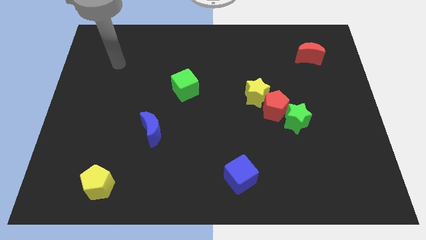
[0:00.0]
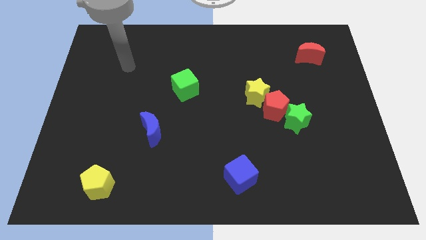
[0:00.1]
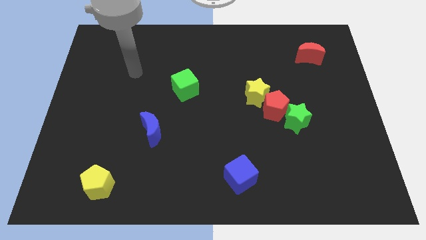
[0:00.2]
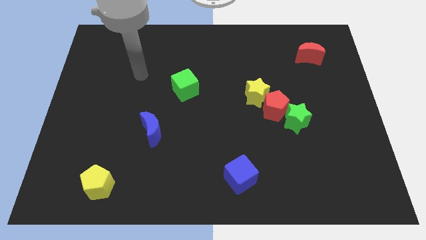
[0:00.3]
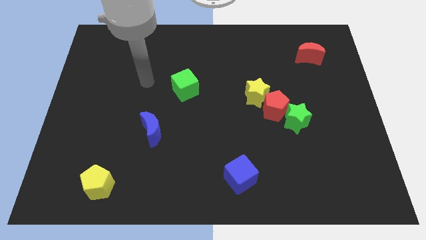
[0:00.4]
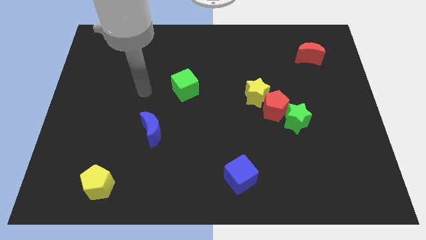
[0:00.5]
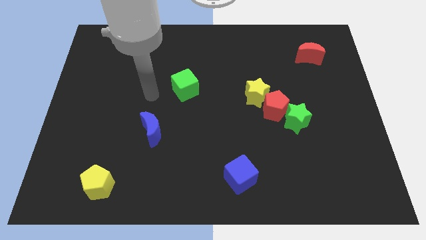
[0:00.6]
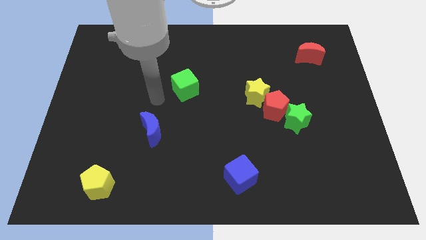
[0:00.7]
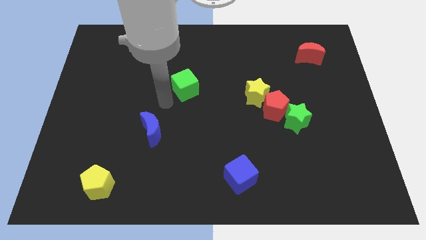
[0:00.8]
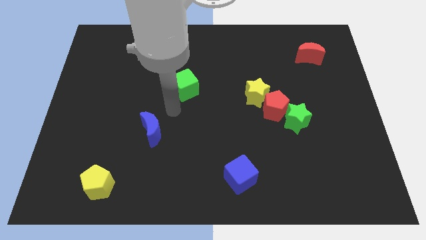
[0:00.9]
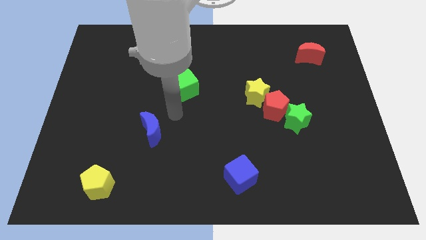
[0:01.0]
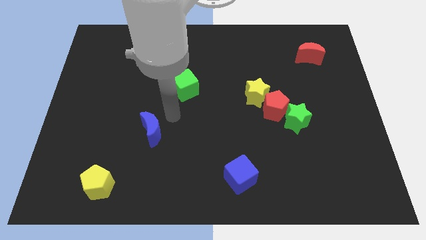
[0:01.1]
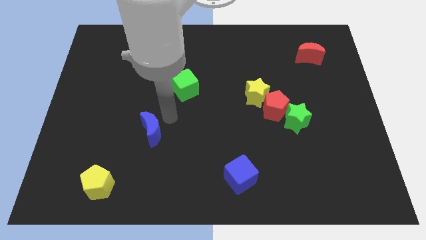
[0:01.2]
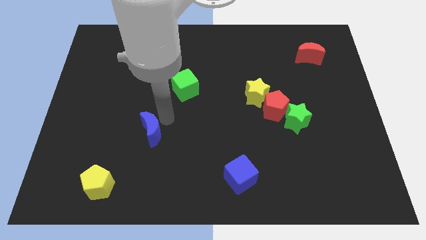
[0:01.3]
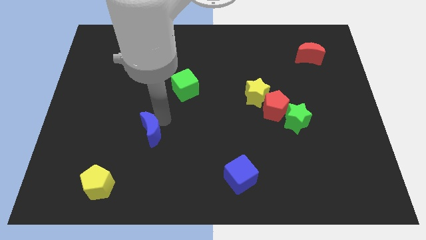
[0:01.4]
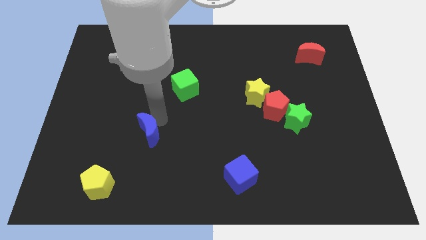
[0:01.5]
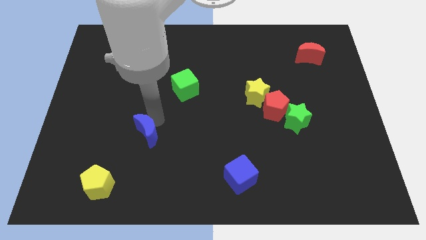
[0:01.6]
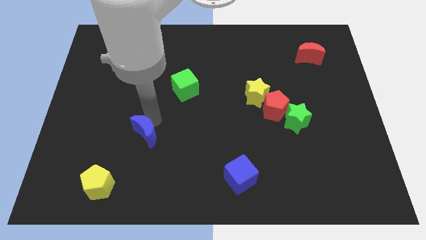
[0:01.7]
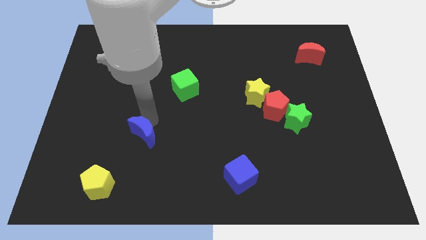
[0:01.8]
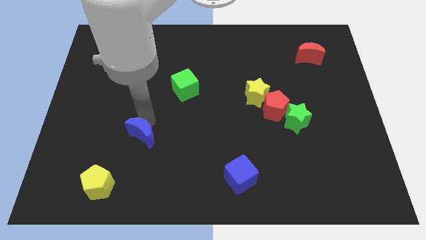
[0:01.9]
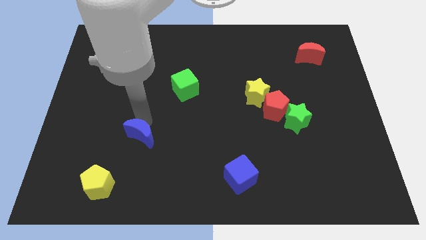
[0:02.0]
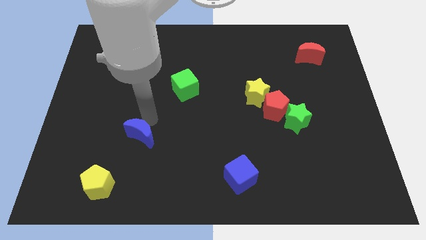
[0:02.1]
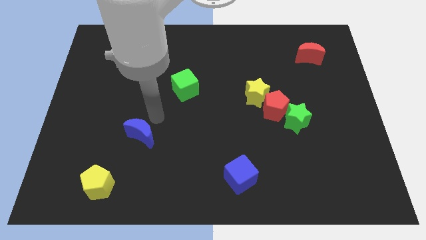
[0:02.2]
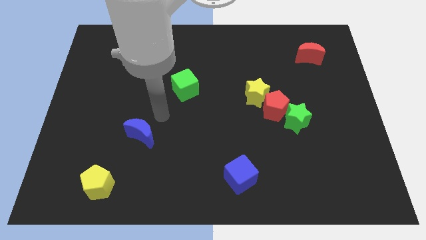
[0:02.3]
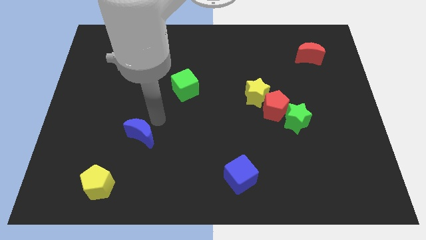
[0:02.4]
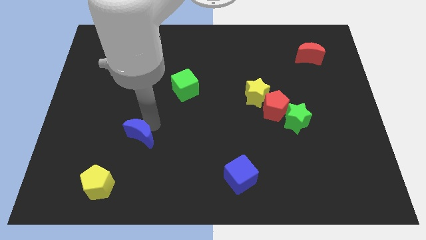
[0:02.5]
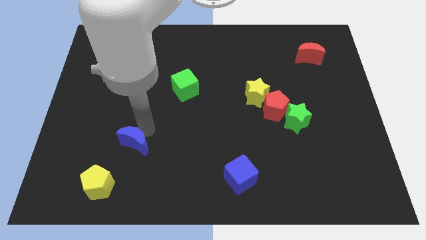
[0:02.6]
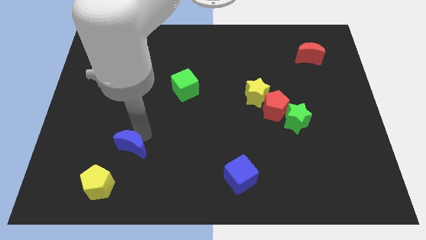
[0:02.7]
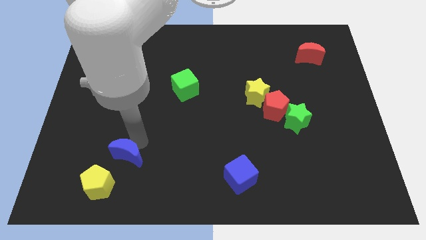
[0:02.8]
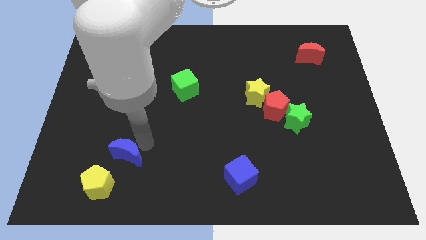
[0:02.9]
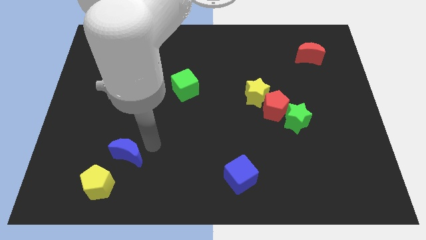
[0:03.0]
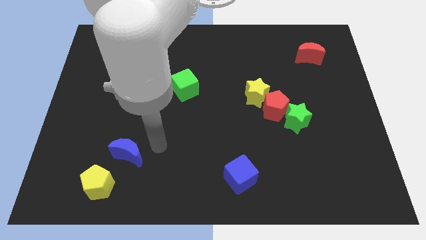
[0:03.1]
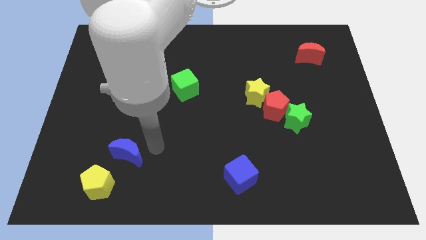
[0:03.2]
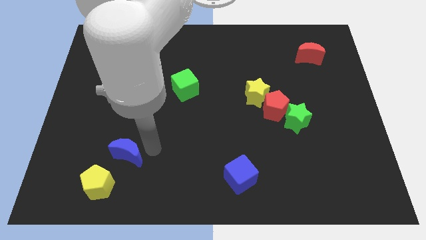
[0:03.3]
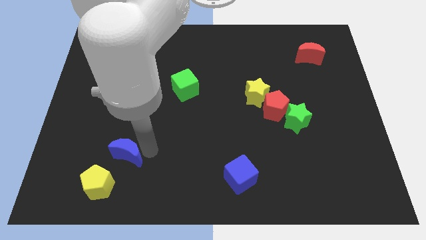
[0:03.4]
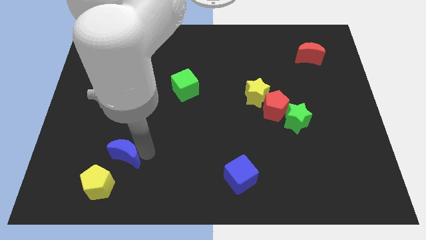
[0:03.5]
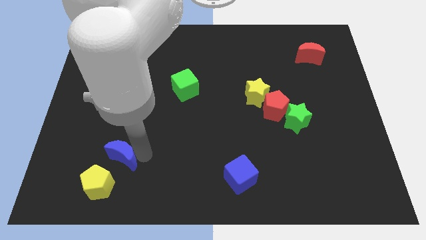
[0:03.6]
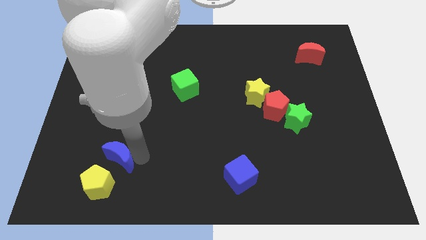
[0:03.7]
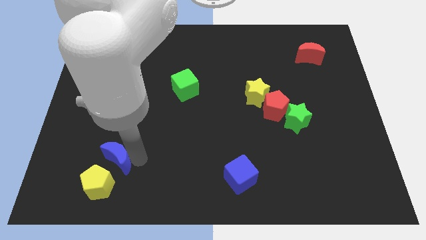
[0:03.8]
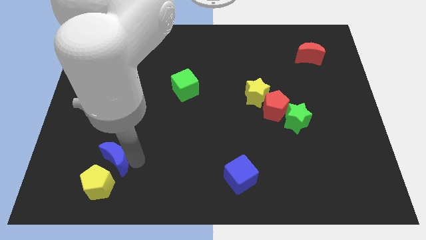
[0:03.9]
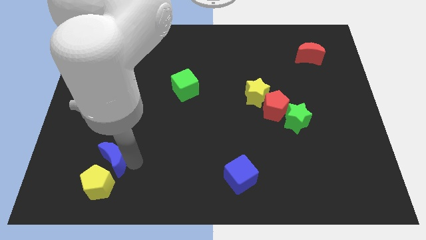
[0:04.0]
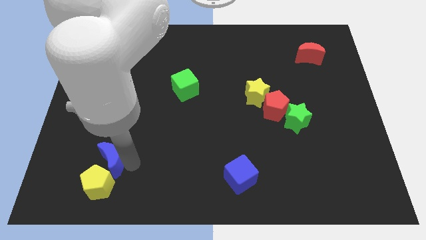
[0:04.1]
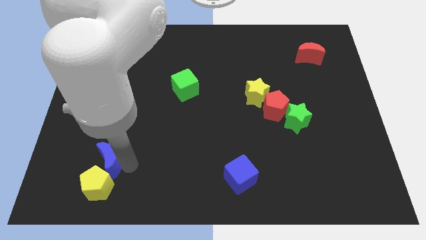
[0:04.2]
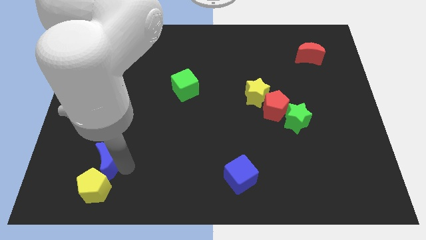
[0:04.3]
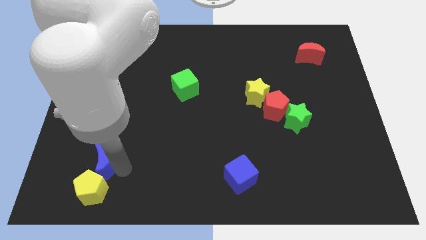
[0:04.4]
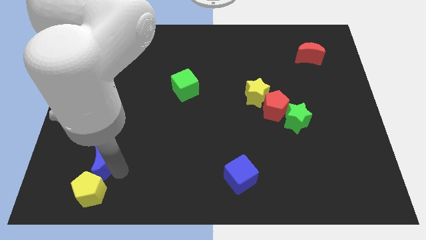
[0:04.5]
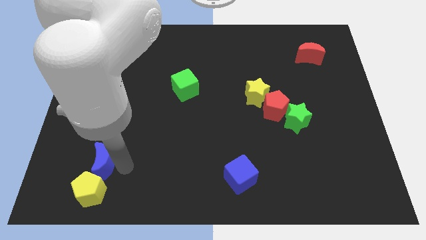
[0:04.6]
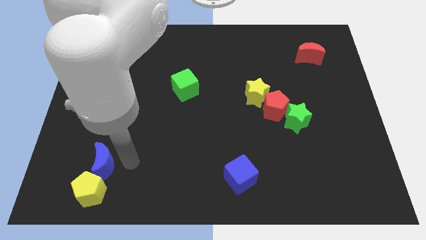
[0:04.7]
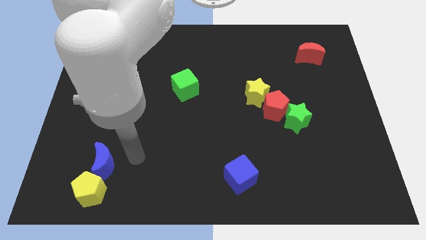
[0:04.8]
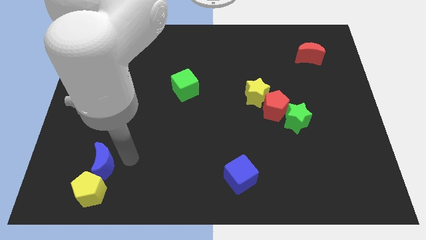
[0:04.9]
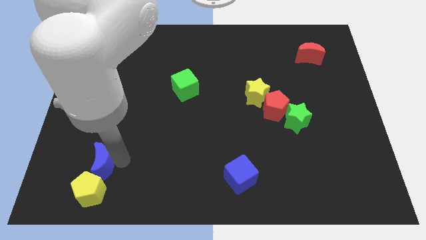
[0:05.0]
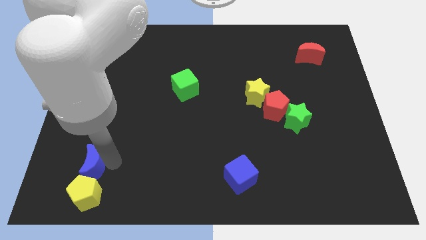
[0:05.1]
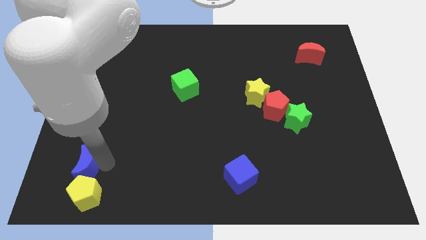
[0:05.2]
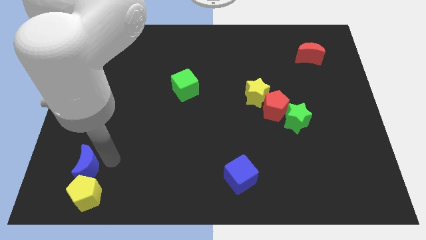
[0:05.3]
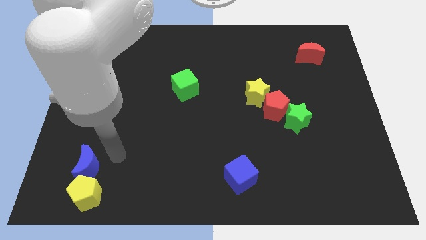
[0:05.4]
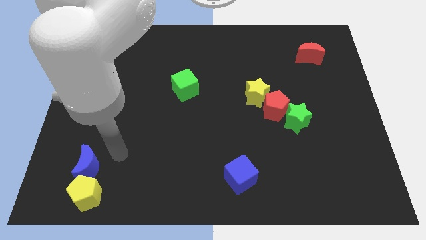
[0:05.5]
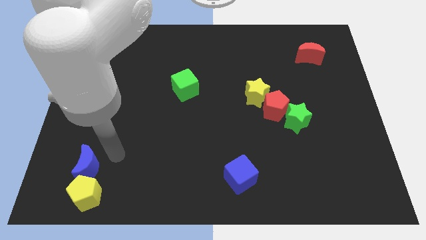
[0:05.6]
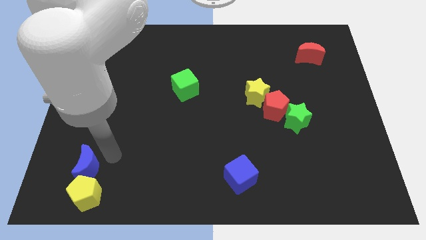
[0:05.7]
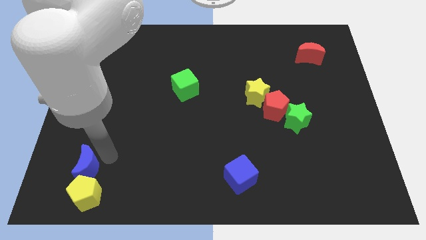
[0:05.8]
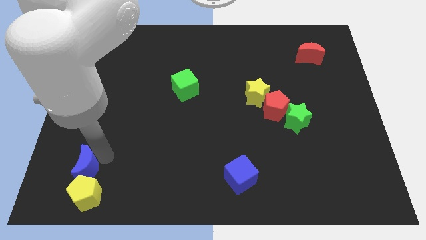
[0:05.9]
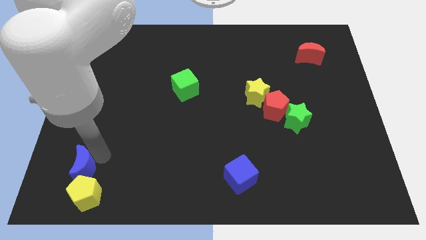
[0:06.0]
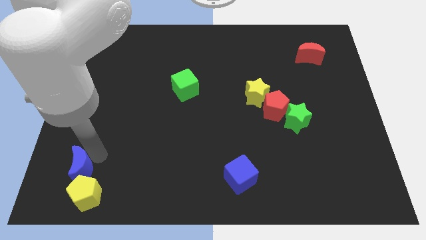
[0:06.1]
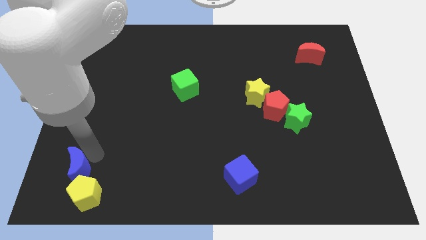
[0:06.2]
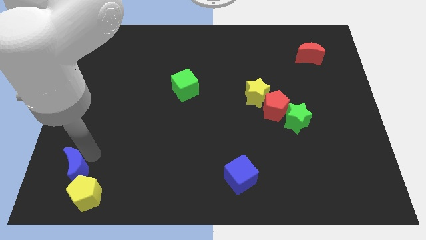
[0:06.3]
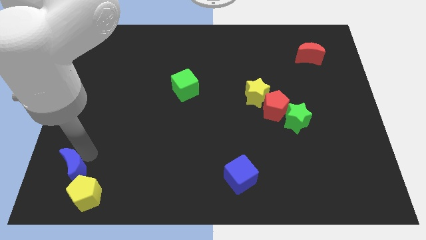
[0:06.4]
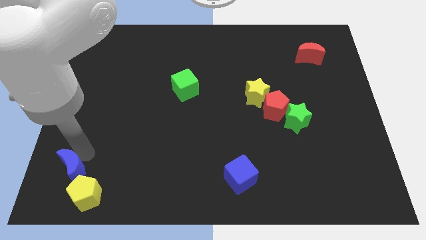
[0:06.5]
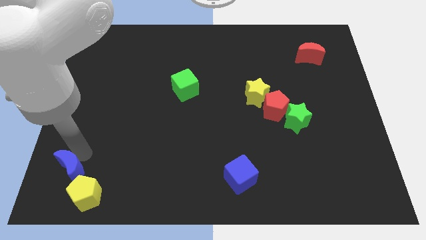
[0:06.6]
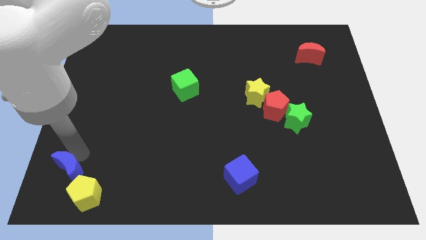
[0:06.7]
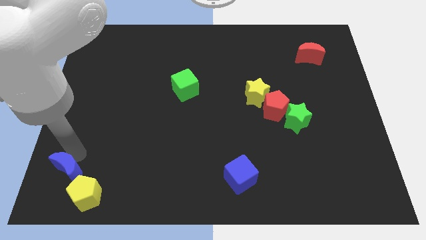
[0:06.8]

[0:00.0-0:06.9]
push the blue moon to the bottom left corner

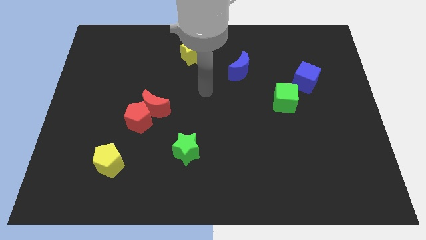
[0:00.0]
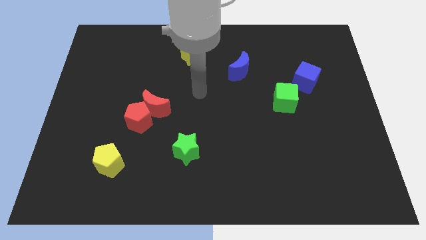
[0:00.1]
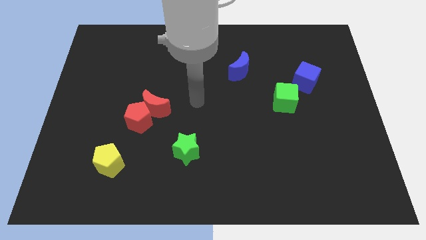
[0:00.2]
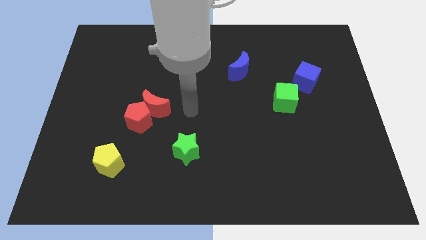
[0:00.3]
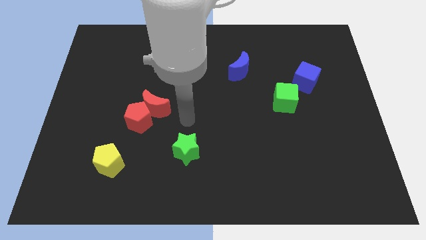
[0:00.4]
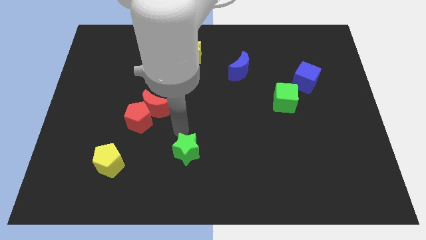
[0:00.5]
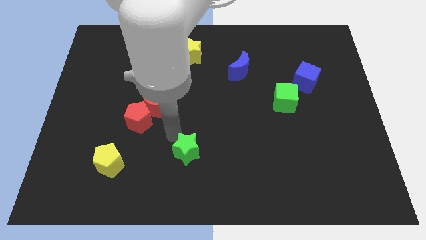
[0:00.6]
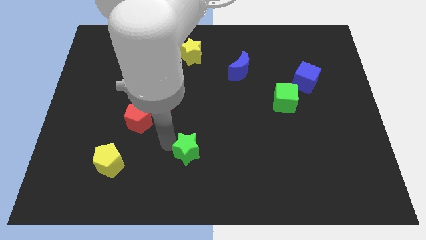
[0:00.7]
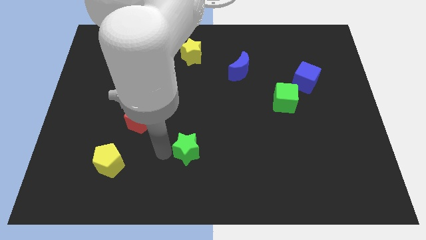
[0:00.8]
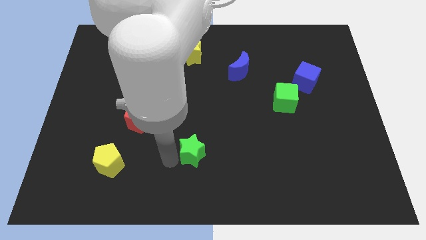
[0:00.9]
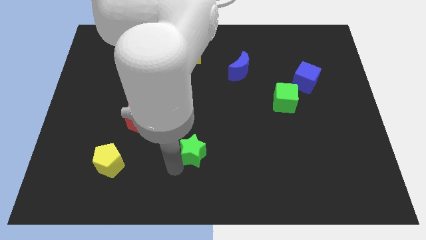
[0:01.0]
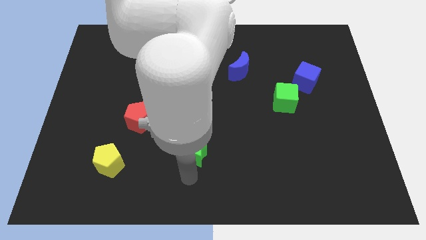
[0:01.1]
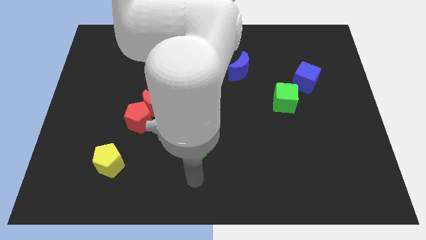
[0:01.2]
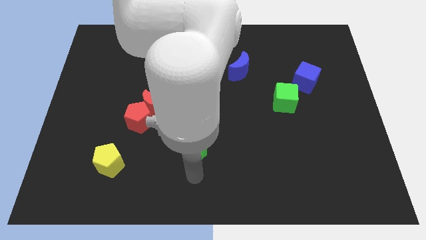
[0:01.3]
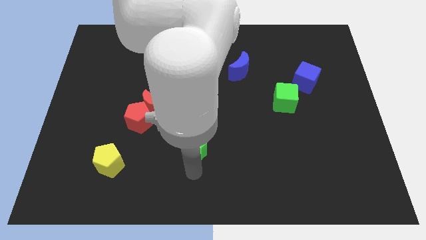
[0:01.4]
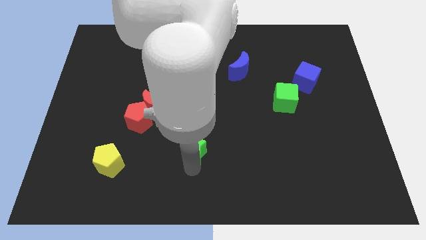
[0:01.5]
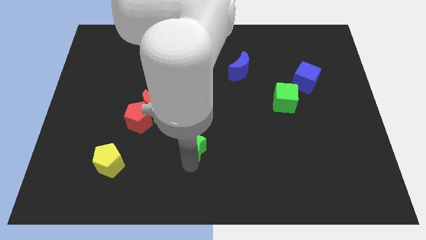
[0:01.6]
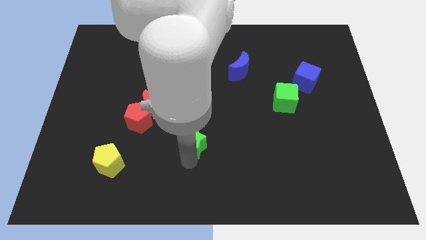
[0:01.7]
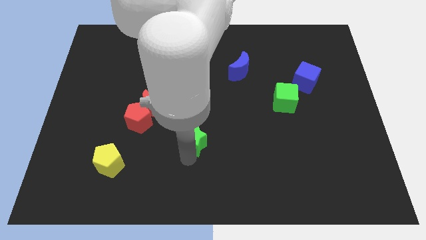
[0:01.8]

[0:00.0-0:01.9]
slide the green star to the middle of the board
